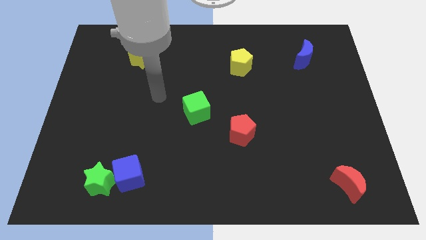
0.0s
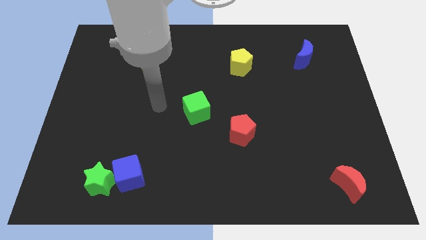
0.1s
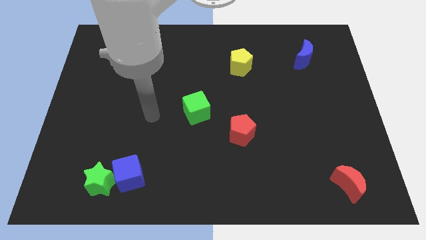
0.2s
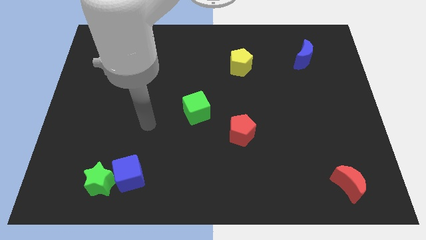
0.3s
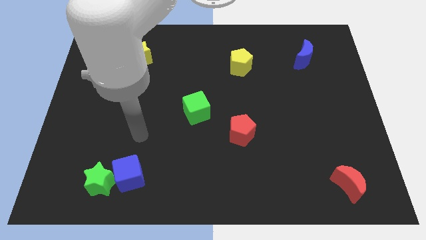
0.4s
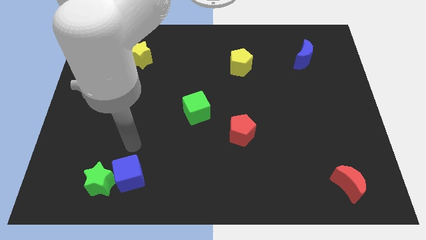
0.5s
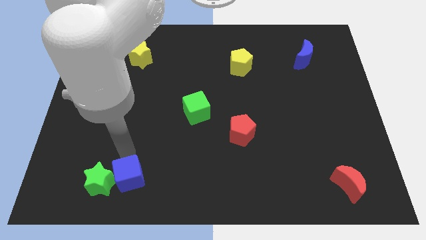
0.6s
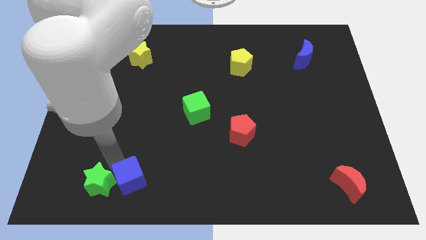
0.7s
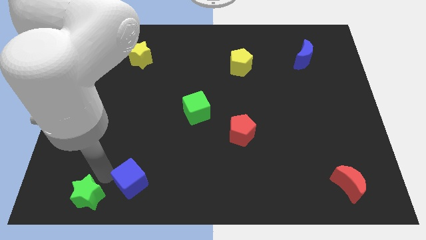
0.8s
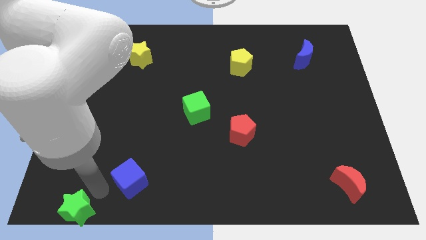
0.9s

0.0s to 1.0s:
separate the blue cube from the green star

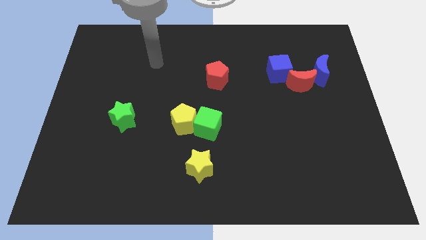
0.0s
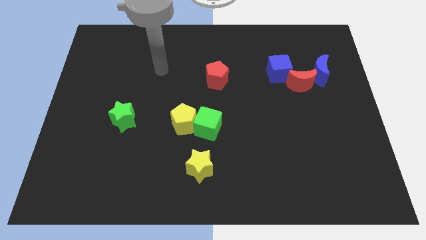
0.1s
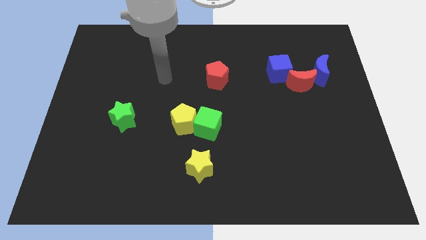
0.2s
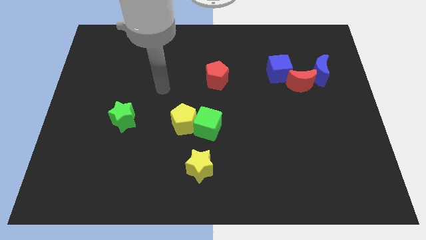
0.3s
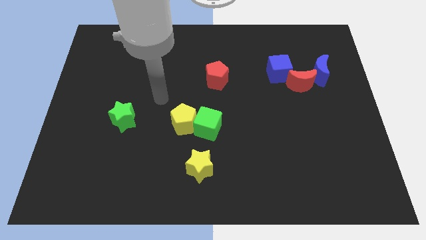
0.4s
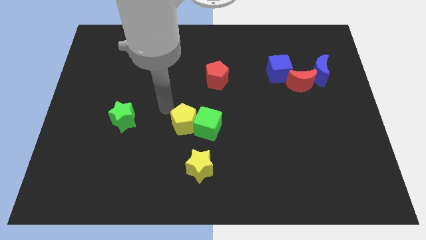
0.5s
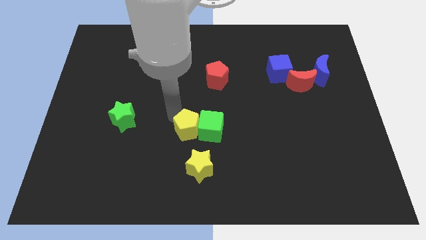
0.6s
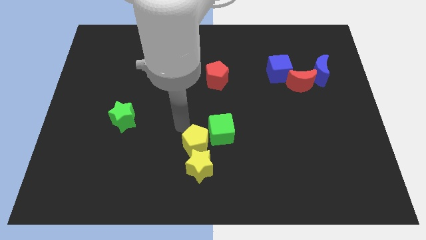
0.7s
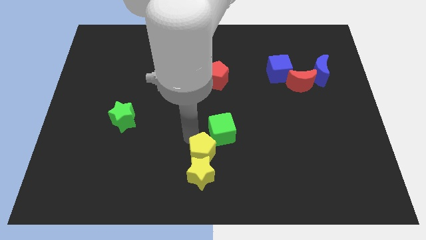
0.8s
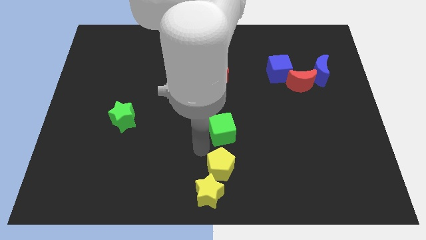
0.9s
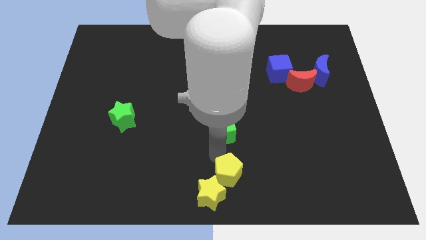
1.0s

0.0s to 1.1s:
move the green cube away from the yellow pentagon

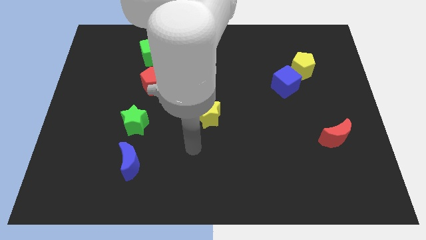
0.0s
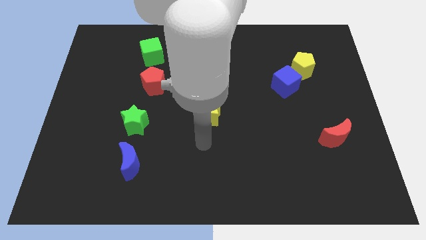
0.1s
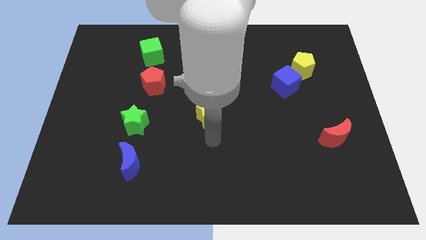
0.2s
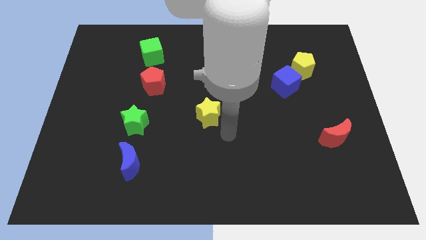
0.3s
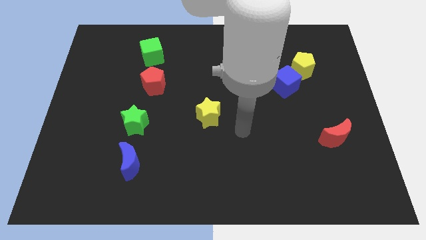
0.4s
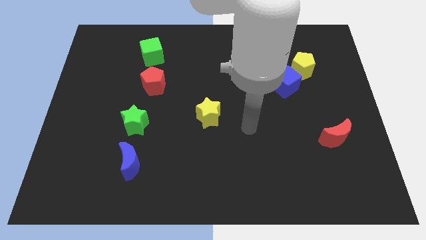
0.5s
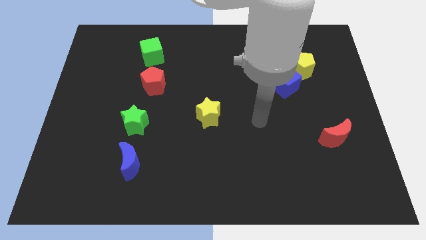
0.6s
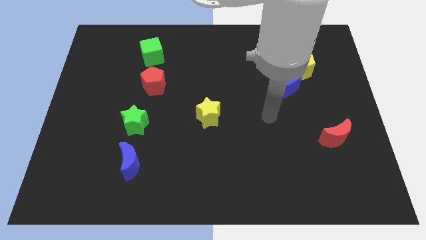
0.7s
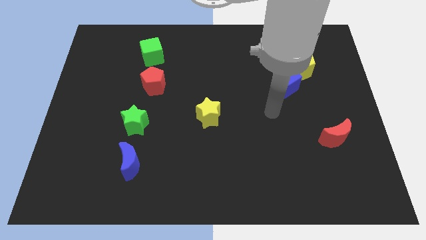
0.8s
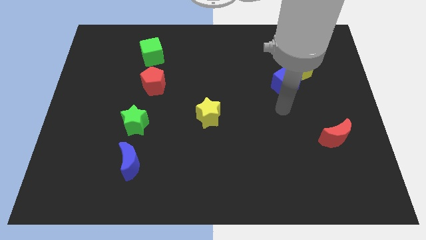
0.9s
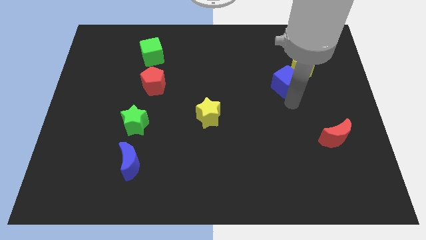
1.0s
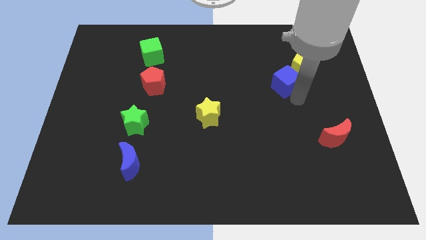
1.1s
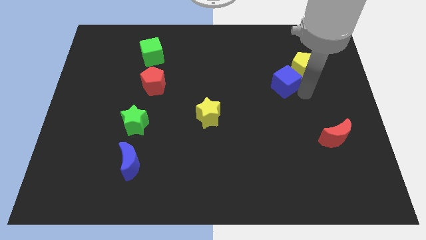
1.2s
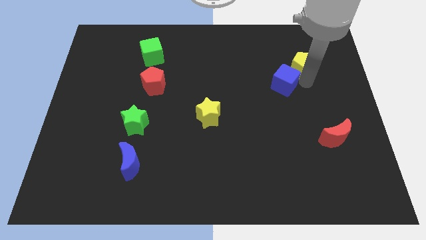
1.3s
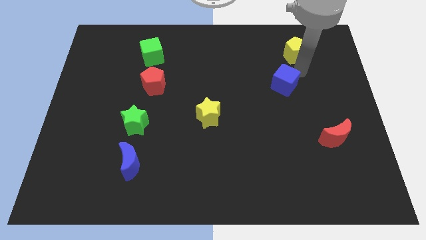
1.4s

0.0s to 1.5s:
separate the blue cube from the yellow pentagon

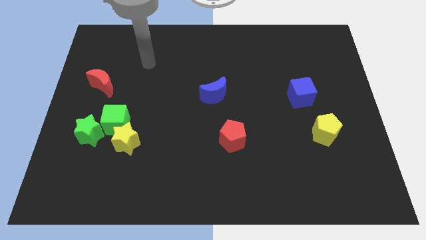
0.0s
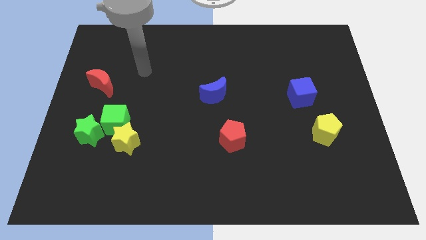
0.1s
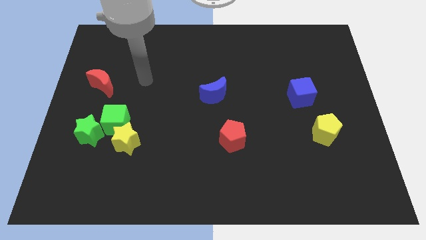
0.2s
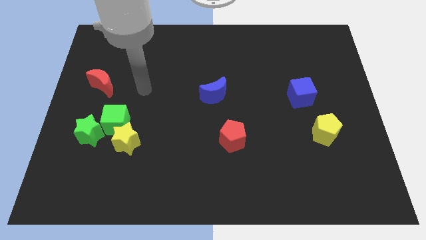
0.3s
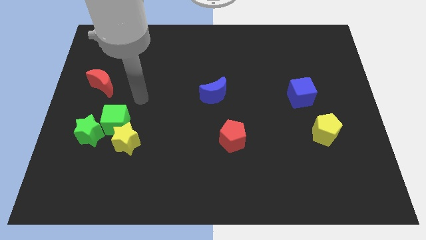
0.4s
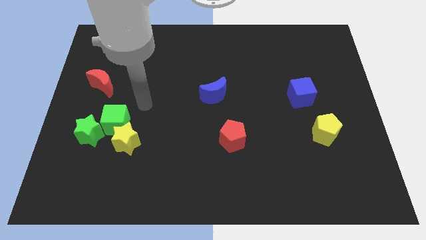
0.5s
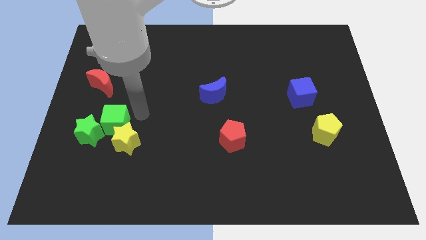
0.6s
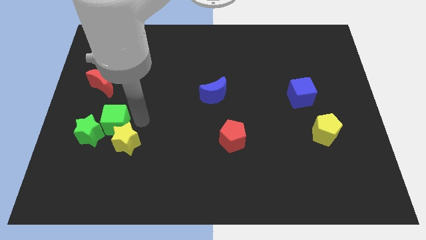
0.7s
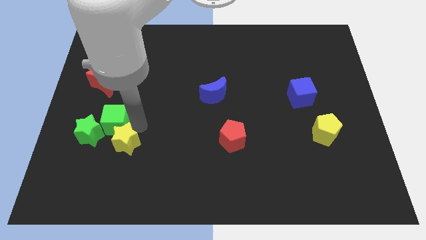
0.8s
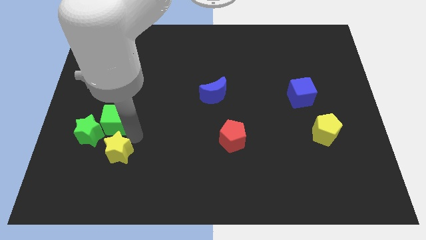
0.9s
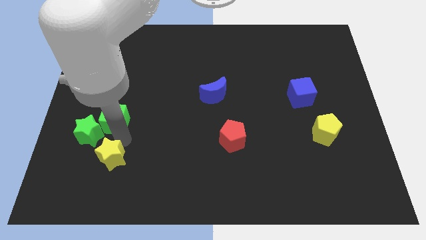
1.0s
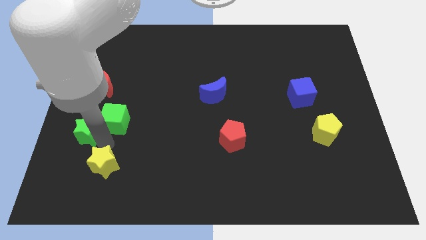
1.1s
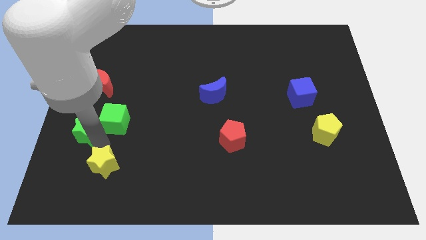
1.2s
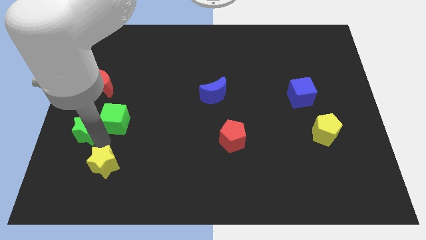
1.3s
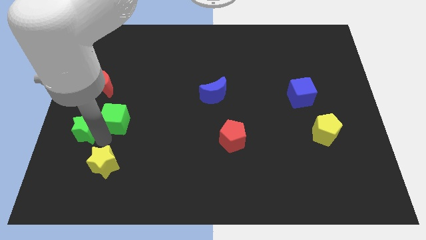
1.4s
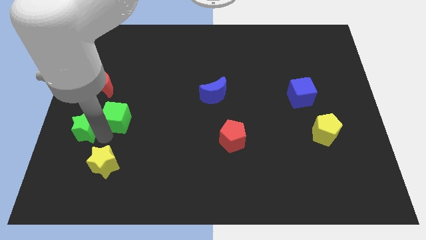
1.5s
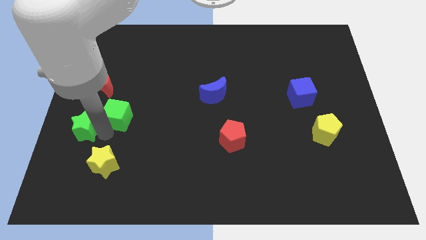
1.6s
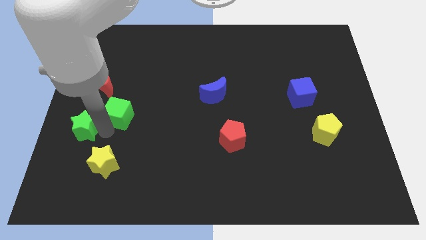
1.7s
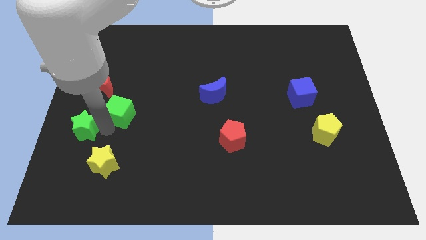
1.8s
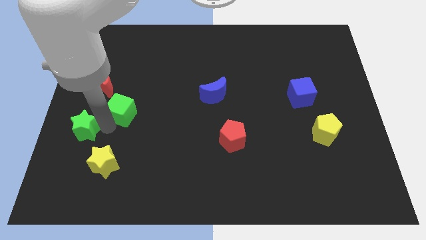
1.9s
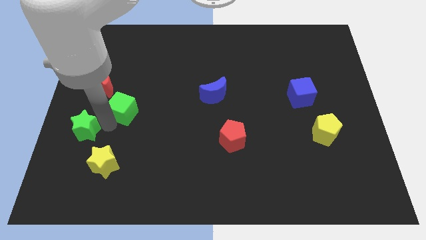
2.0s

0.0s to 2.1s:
pull the green cube apart from the green star and yellow star

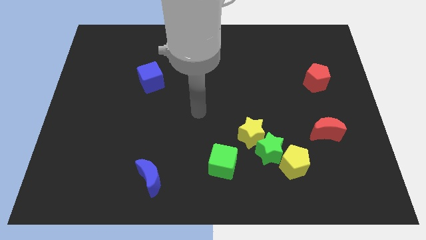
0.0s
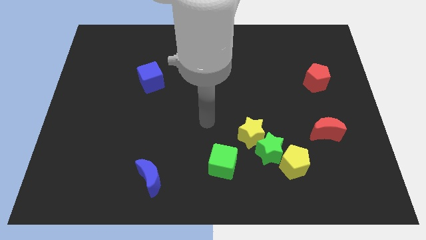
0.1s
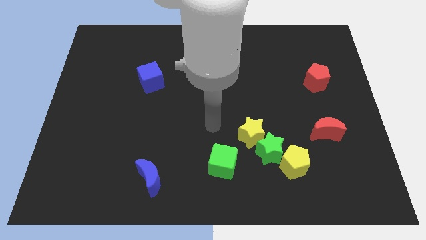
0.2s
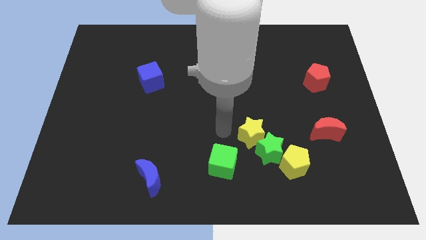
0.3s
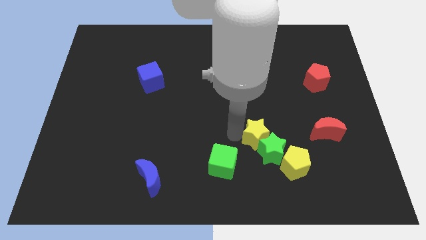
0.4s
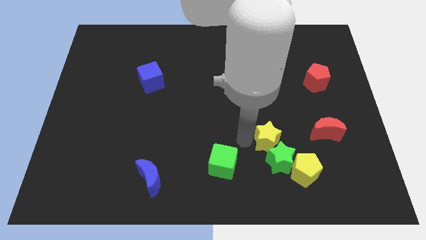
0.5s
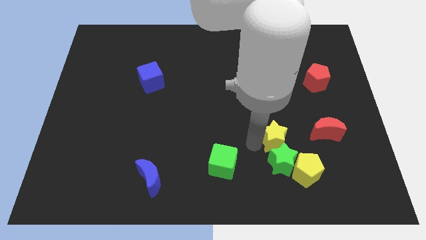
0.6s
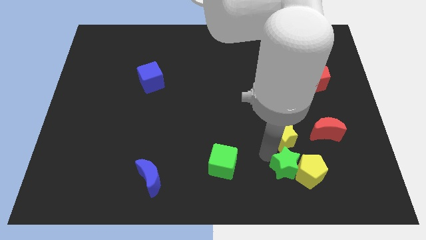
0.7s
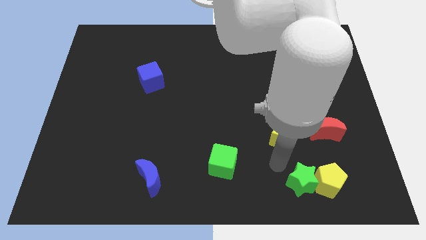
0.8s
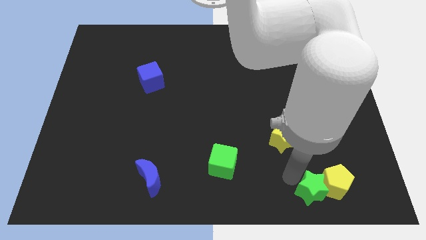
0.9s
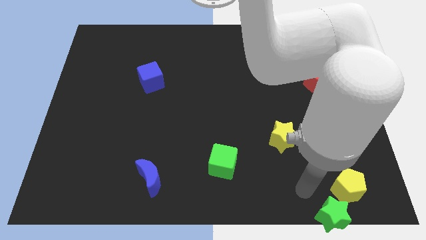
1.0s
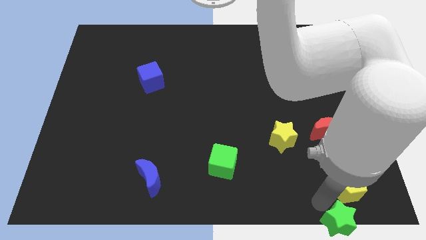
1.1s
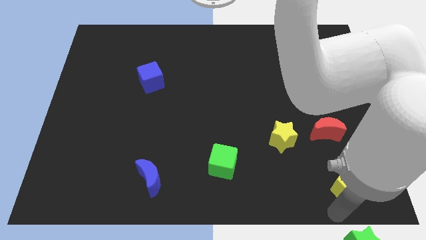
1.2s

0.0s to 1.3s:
pull the yellow pentagon apart from the green star

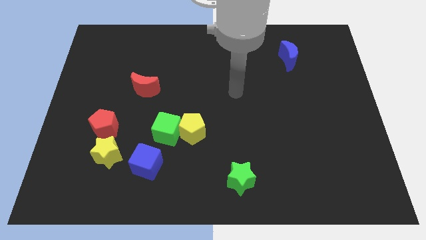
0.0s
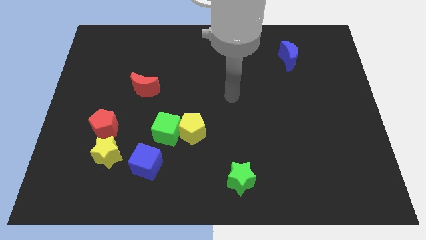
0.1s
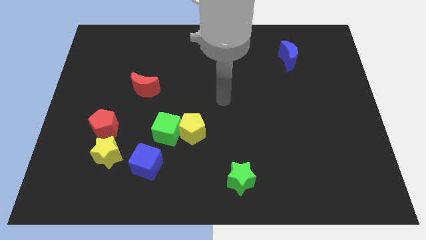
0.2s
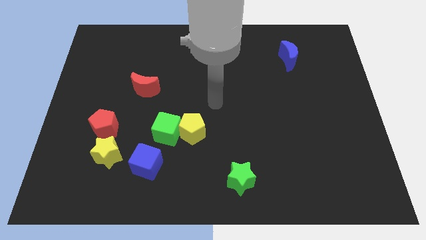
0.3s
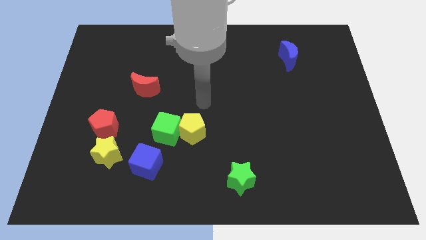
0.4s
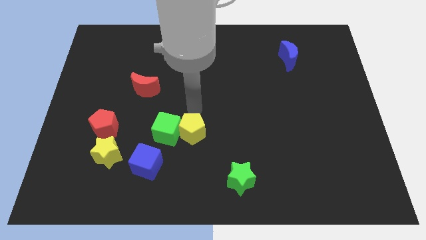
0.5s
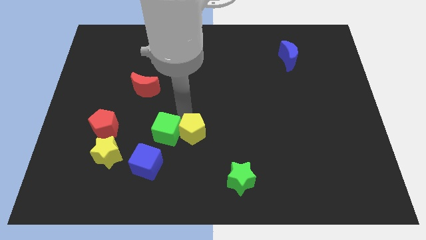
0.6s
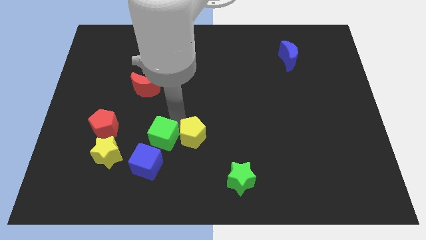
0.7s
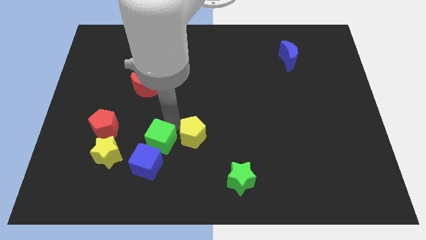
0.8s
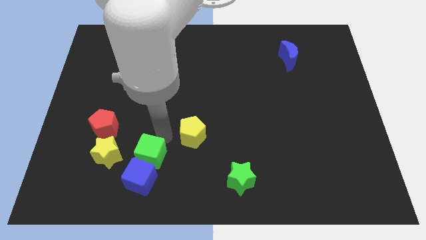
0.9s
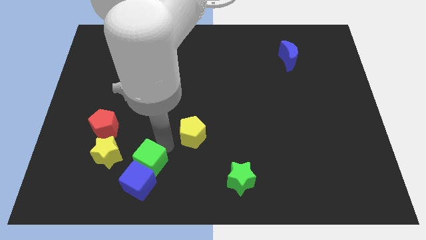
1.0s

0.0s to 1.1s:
separate the yellow pentagon from the green cube

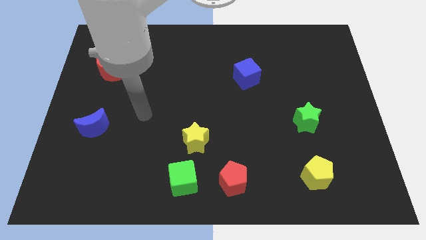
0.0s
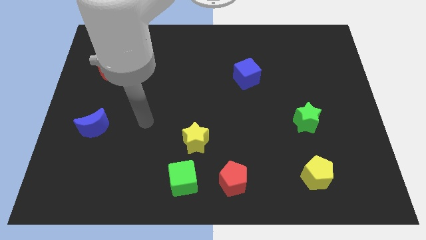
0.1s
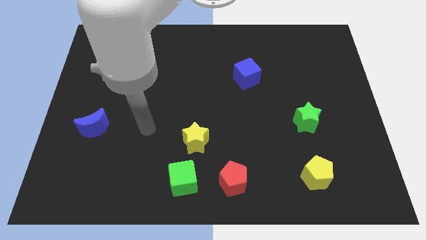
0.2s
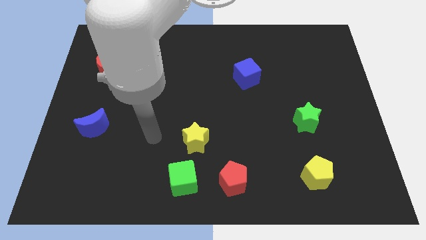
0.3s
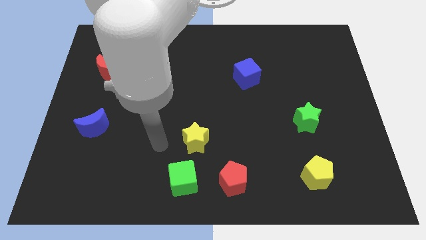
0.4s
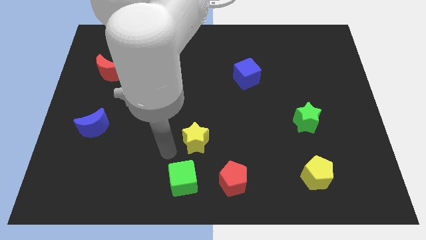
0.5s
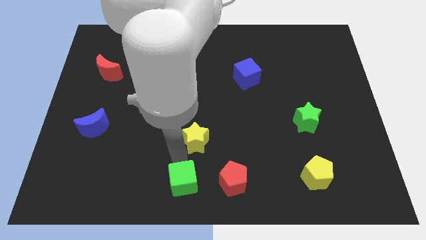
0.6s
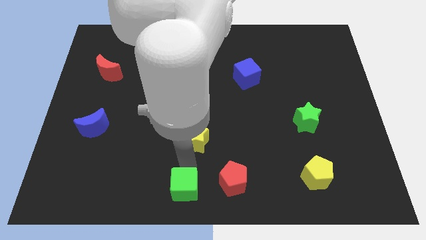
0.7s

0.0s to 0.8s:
separate the yellow star from the green cube

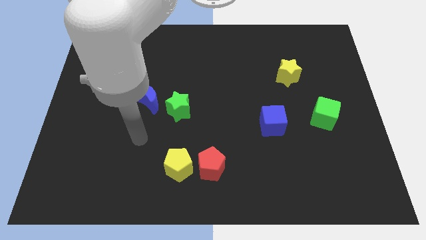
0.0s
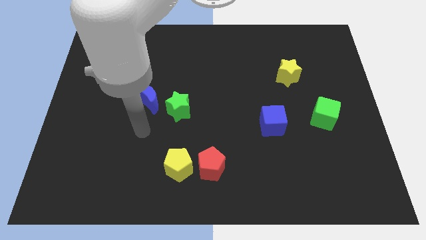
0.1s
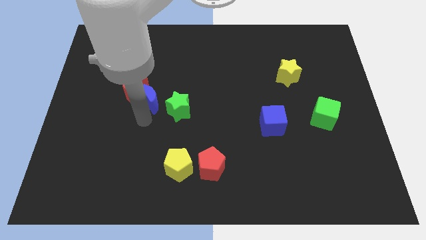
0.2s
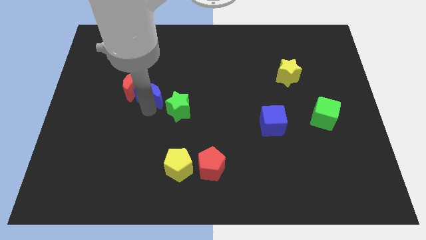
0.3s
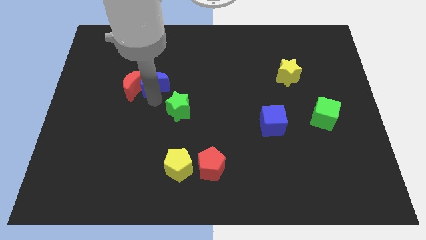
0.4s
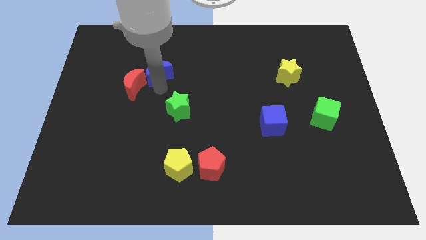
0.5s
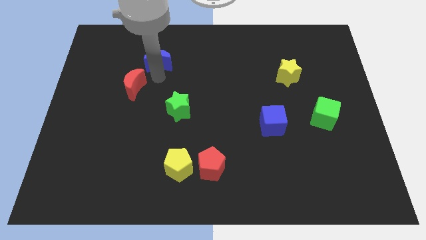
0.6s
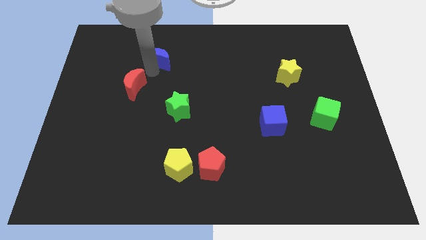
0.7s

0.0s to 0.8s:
pull the red moon apart from the blue moon
